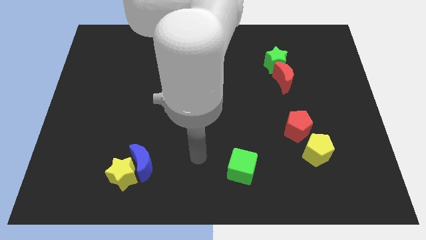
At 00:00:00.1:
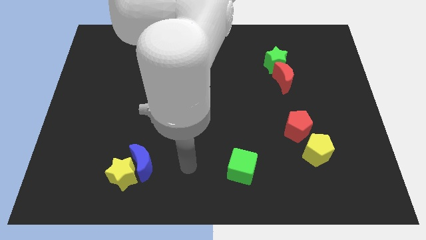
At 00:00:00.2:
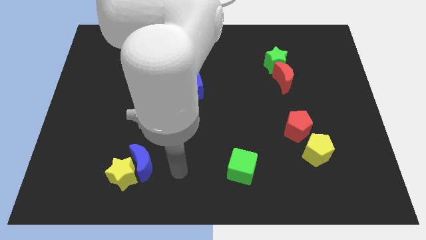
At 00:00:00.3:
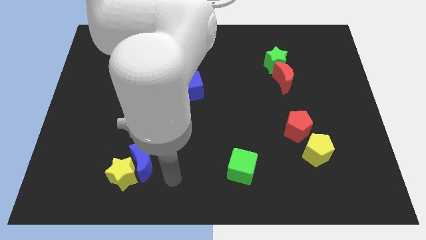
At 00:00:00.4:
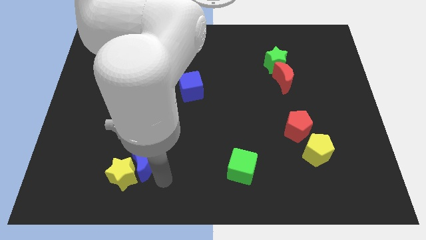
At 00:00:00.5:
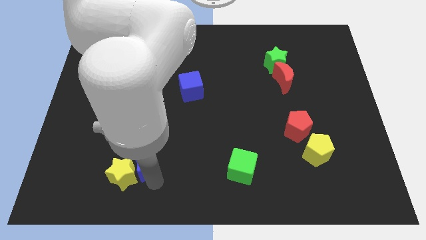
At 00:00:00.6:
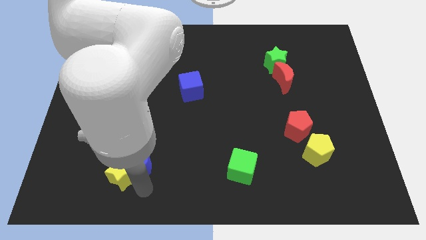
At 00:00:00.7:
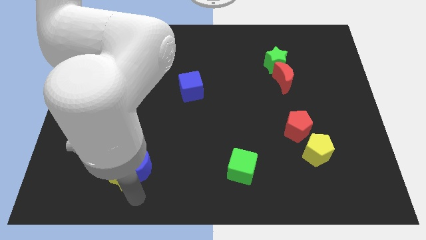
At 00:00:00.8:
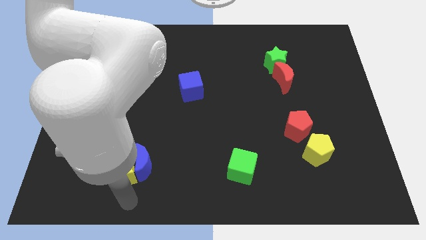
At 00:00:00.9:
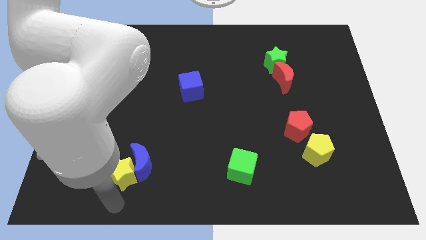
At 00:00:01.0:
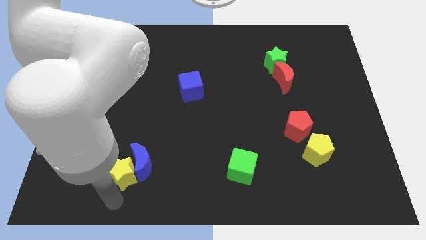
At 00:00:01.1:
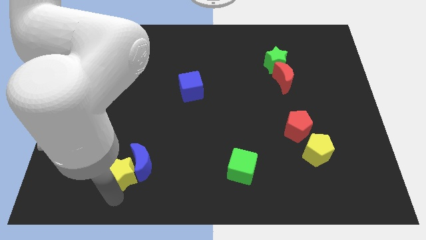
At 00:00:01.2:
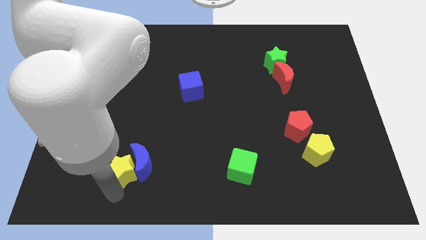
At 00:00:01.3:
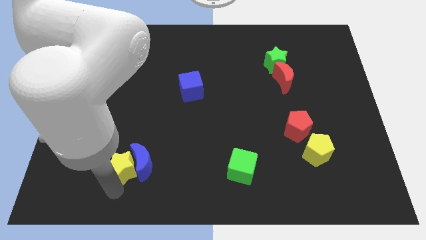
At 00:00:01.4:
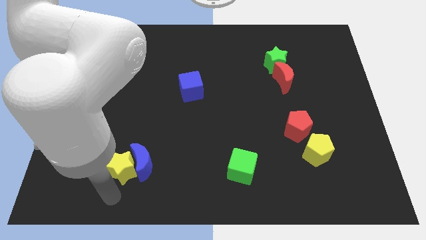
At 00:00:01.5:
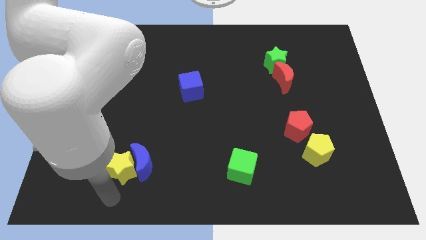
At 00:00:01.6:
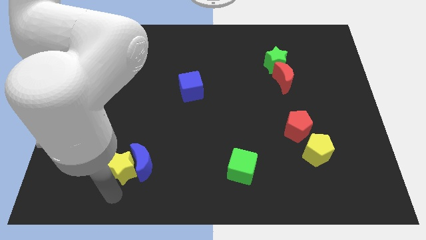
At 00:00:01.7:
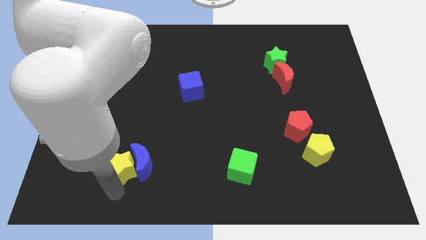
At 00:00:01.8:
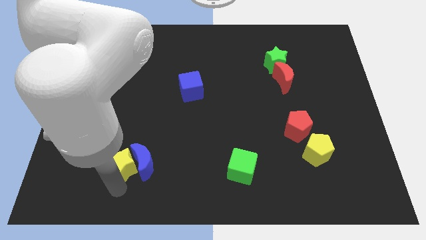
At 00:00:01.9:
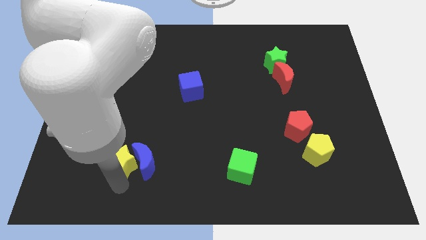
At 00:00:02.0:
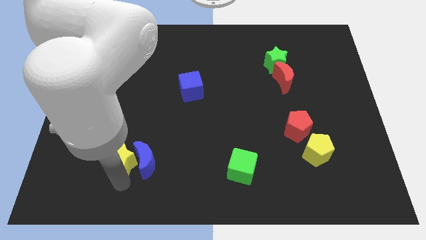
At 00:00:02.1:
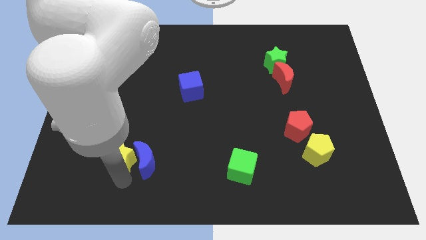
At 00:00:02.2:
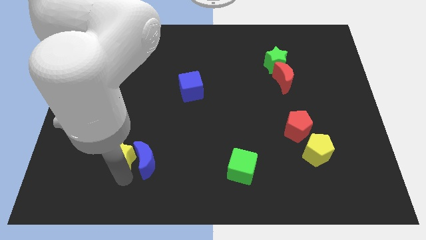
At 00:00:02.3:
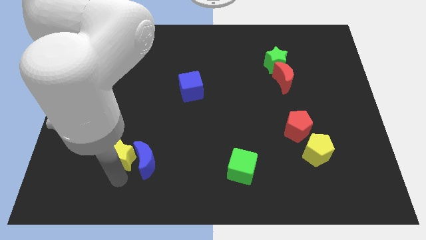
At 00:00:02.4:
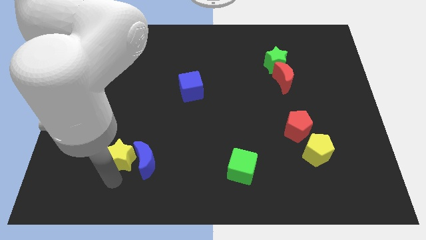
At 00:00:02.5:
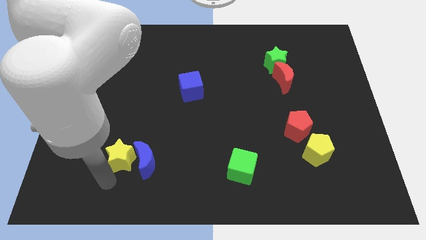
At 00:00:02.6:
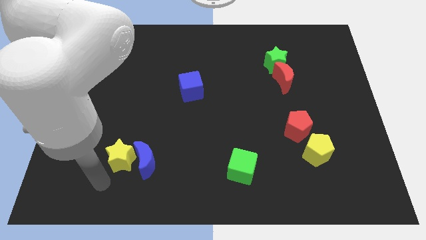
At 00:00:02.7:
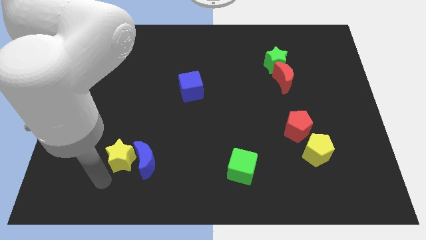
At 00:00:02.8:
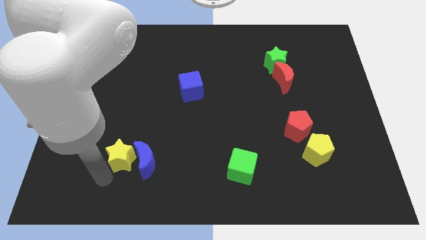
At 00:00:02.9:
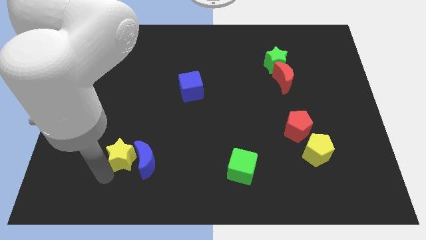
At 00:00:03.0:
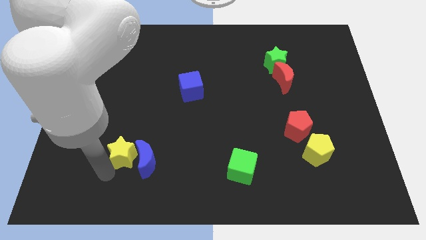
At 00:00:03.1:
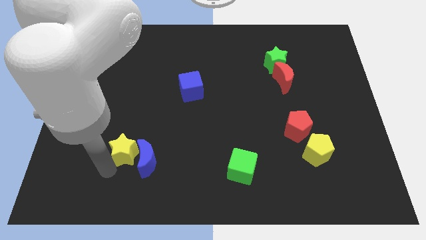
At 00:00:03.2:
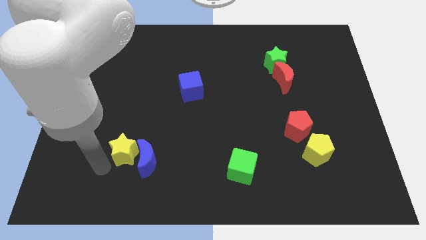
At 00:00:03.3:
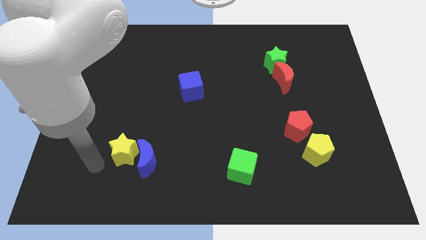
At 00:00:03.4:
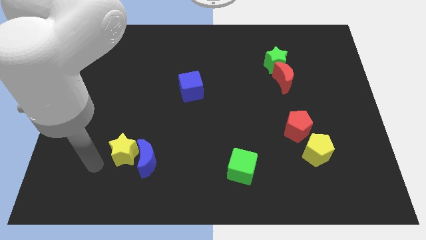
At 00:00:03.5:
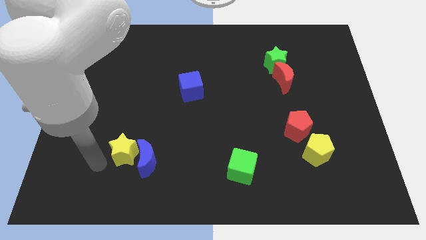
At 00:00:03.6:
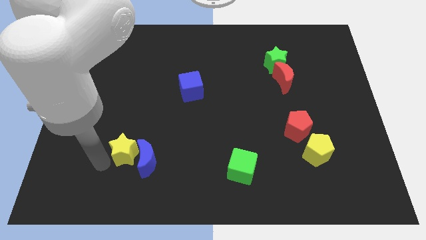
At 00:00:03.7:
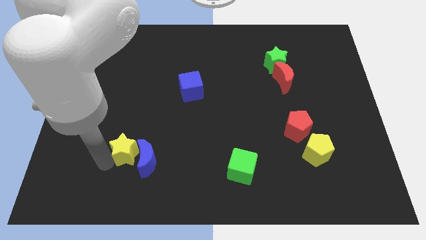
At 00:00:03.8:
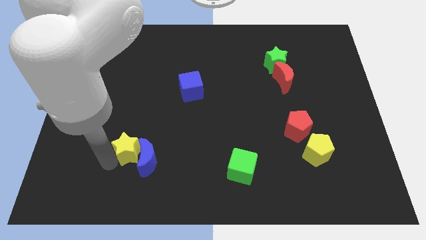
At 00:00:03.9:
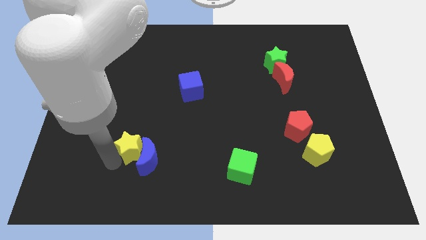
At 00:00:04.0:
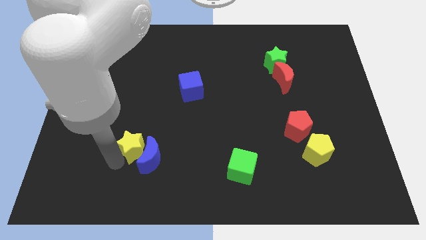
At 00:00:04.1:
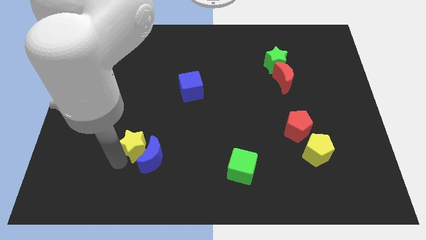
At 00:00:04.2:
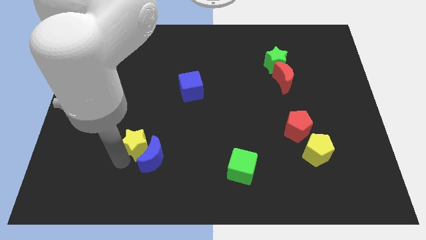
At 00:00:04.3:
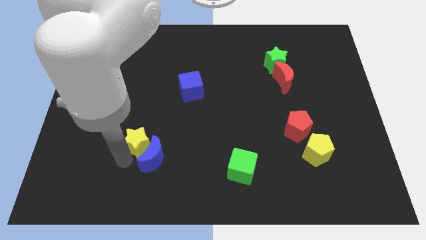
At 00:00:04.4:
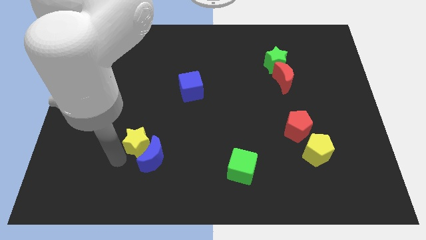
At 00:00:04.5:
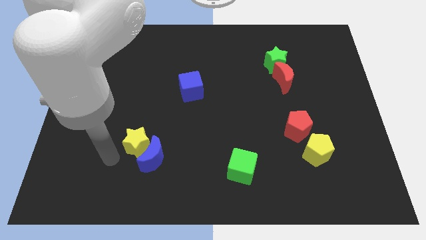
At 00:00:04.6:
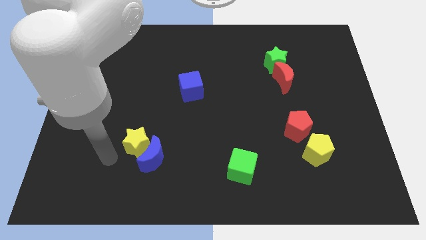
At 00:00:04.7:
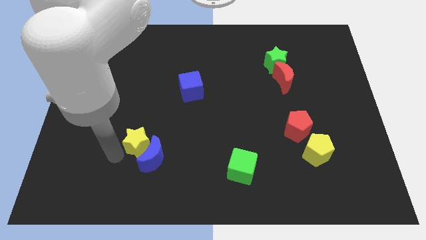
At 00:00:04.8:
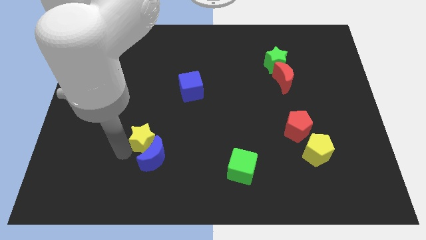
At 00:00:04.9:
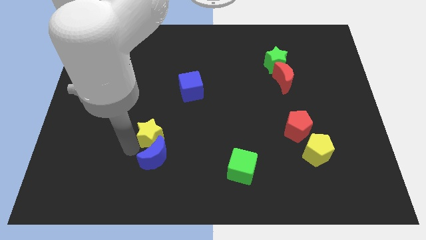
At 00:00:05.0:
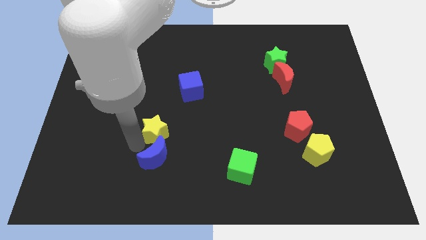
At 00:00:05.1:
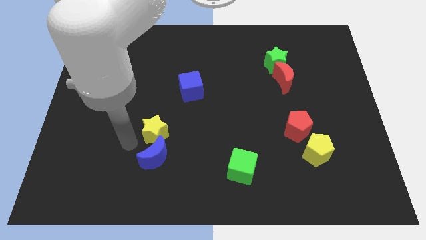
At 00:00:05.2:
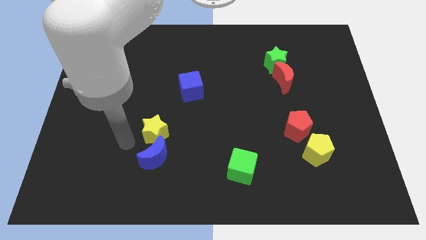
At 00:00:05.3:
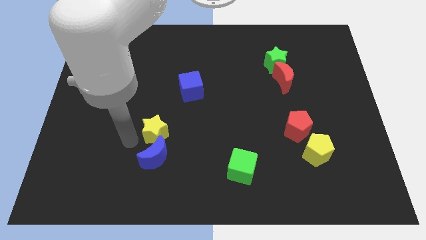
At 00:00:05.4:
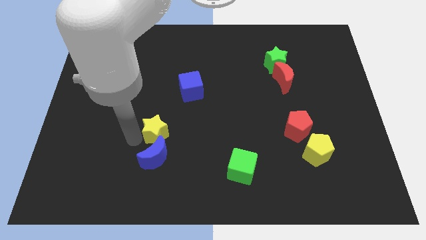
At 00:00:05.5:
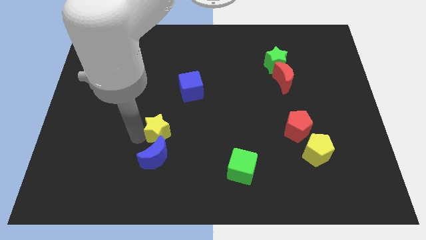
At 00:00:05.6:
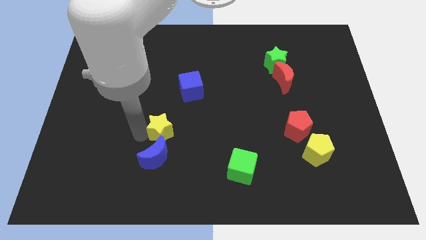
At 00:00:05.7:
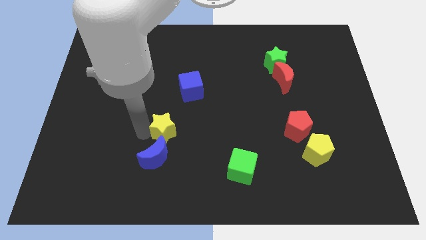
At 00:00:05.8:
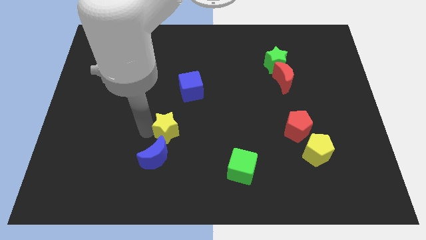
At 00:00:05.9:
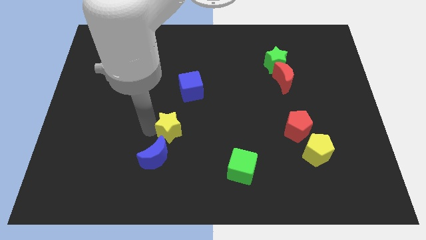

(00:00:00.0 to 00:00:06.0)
slide the yellow star to the bottom of the blue cube

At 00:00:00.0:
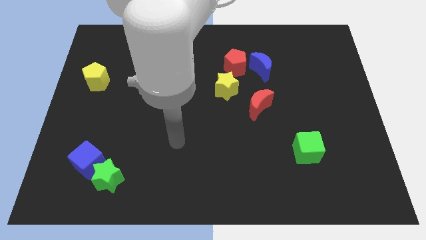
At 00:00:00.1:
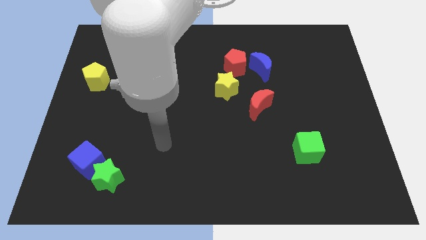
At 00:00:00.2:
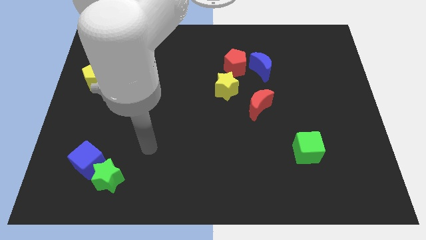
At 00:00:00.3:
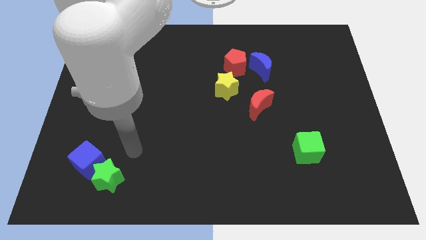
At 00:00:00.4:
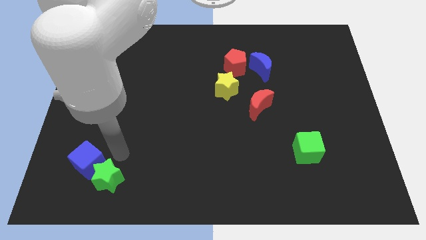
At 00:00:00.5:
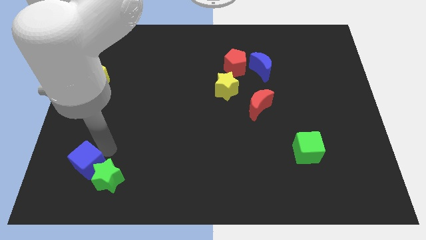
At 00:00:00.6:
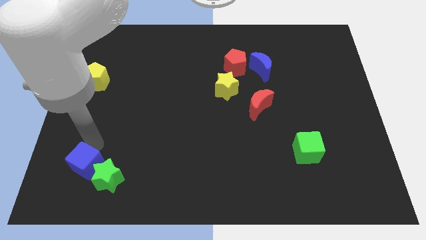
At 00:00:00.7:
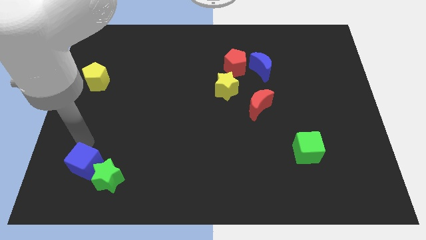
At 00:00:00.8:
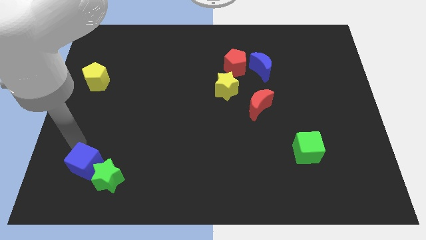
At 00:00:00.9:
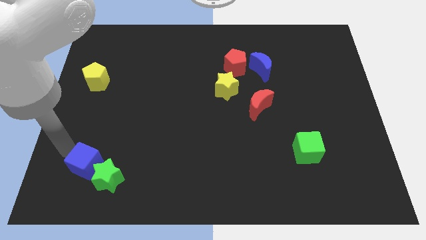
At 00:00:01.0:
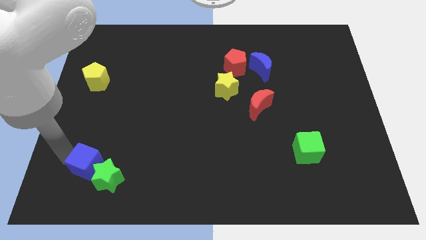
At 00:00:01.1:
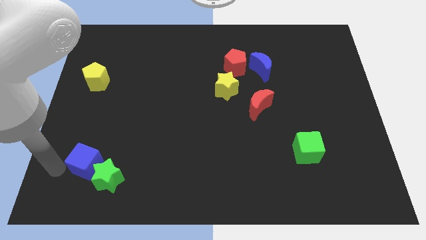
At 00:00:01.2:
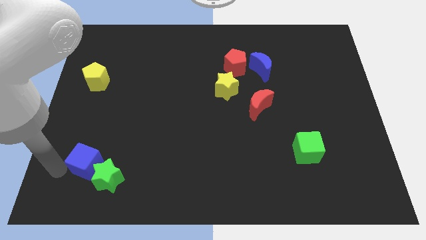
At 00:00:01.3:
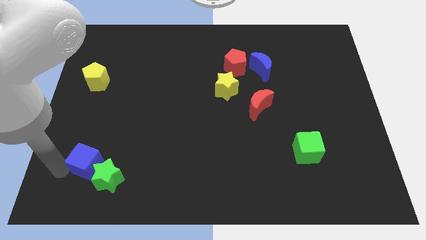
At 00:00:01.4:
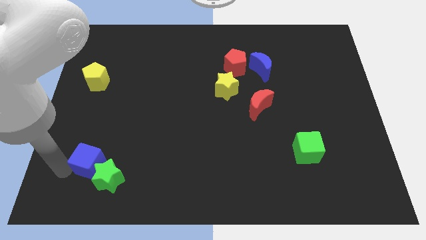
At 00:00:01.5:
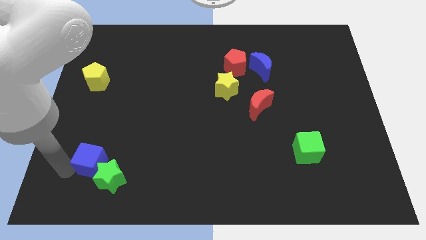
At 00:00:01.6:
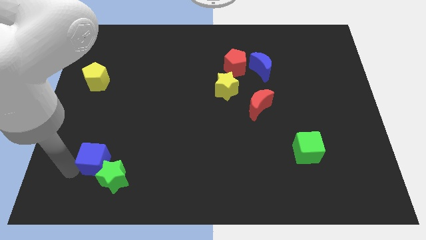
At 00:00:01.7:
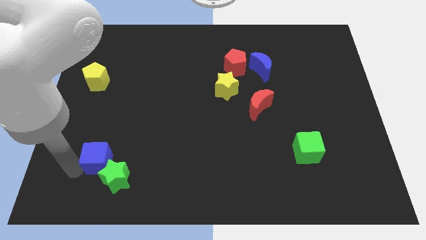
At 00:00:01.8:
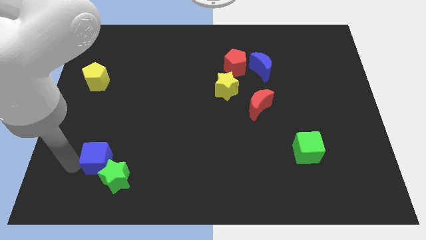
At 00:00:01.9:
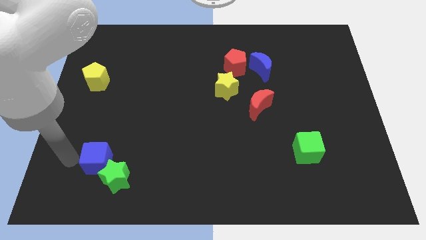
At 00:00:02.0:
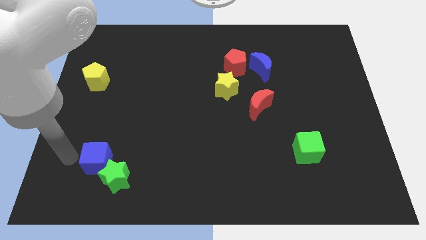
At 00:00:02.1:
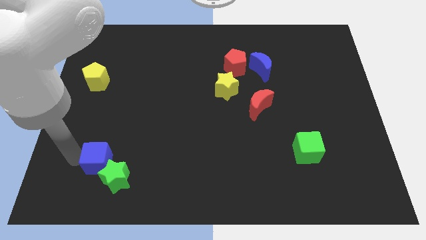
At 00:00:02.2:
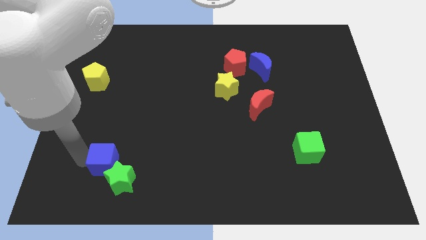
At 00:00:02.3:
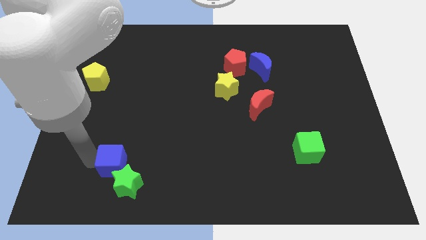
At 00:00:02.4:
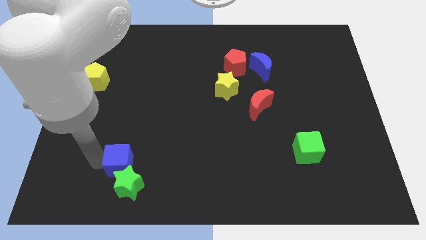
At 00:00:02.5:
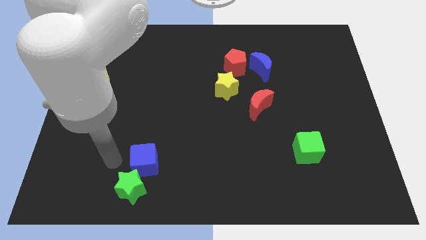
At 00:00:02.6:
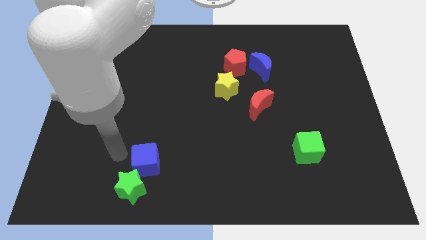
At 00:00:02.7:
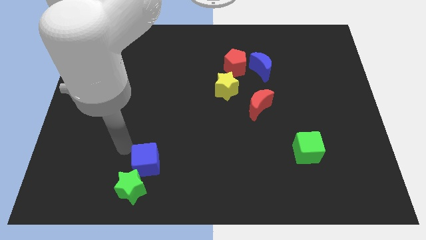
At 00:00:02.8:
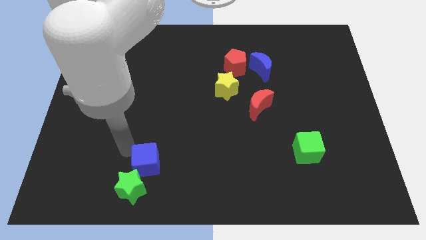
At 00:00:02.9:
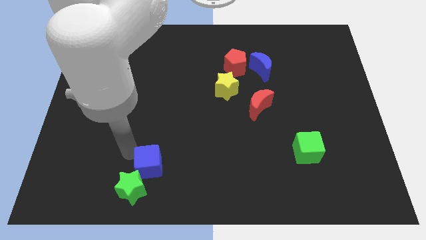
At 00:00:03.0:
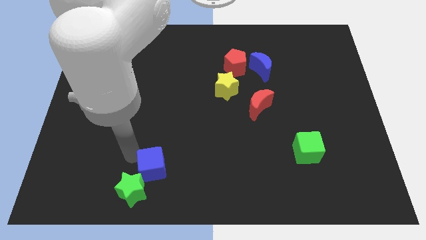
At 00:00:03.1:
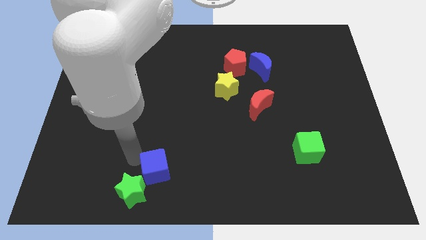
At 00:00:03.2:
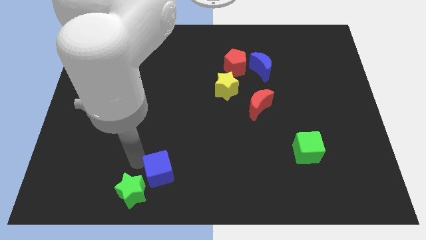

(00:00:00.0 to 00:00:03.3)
move the blue cube just right of the green star
